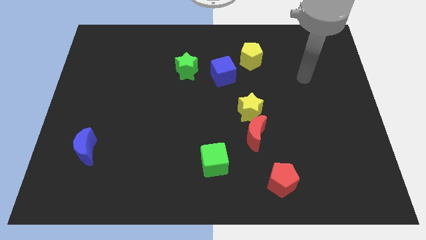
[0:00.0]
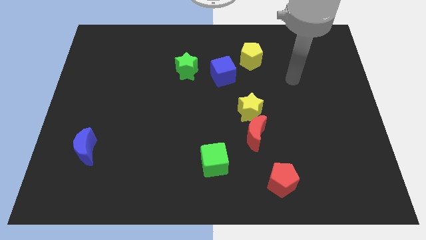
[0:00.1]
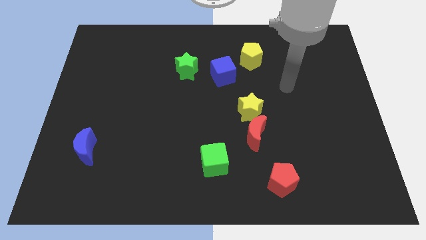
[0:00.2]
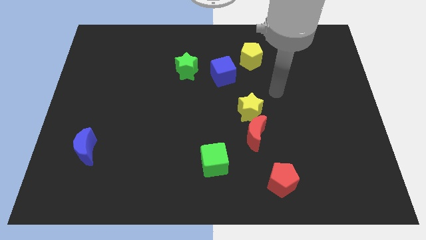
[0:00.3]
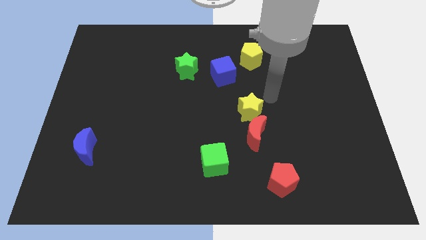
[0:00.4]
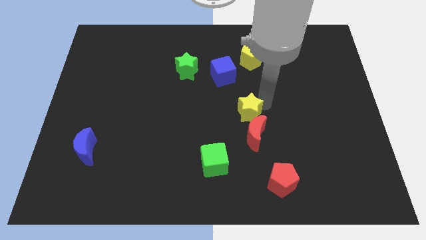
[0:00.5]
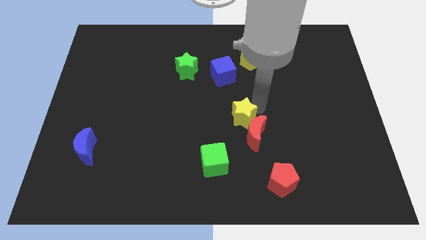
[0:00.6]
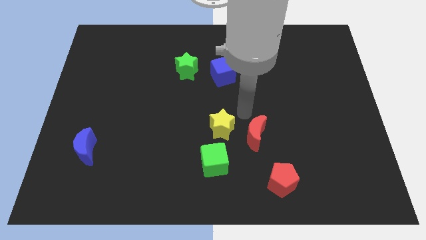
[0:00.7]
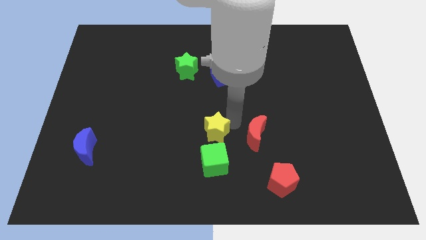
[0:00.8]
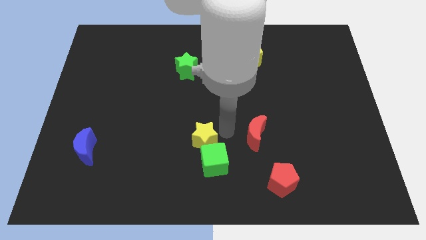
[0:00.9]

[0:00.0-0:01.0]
pull the red moon apart from the yellow star

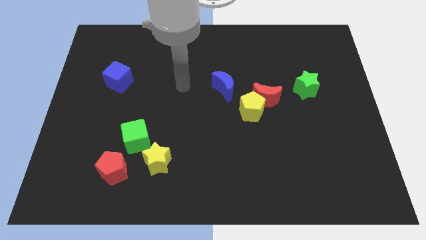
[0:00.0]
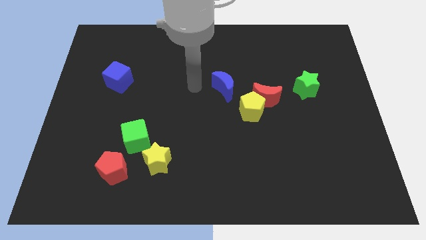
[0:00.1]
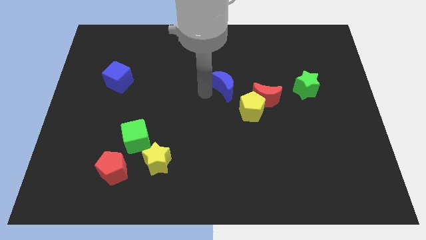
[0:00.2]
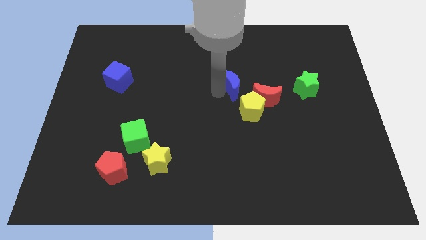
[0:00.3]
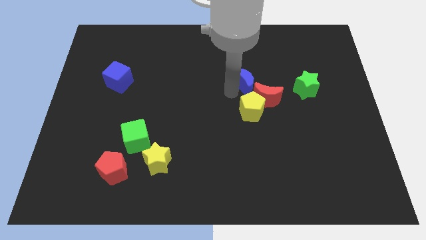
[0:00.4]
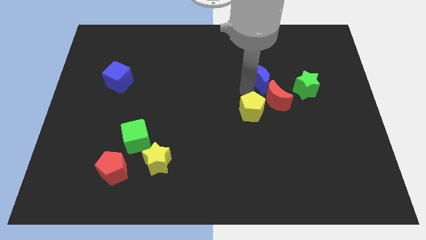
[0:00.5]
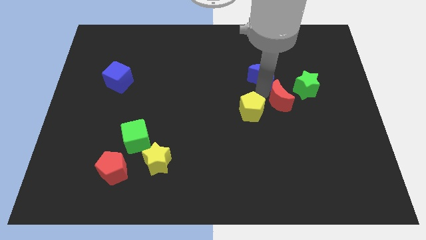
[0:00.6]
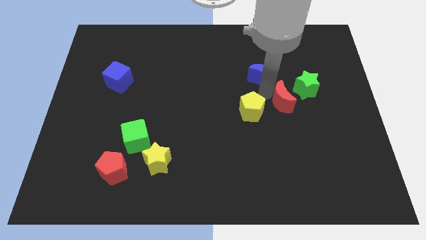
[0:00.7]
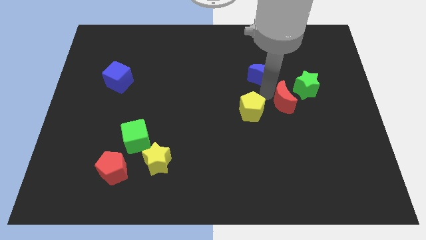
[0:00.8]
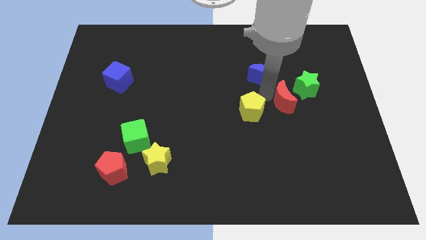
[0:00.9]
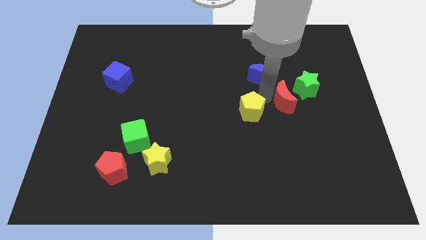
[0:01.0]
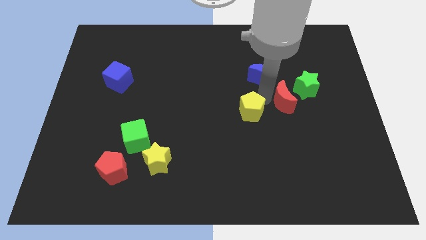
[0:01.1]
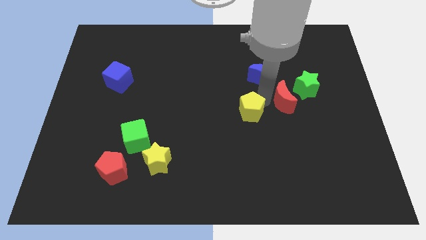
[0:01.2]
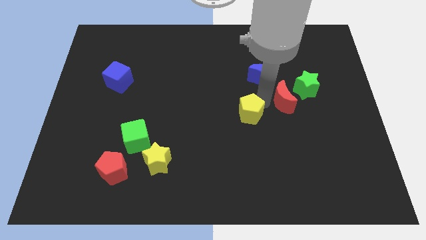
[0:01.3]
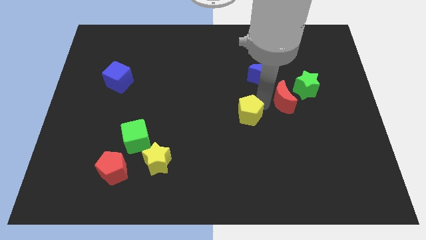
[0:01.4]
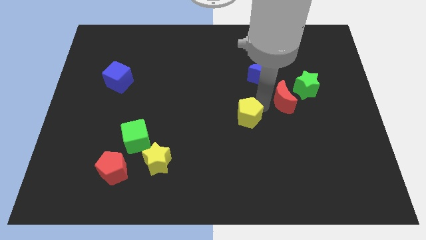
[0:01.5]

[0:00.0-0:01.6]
separate the yellow pentagon from the red moon and blue moon

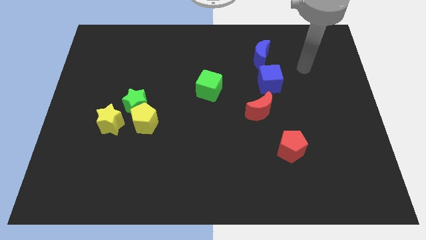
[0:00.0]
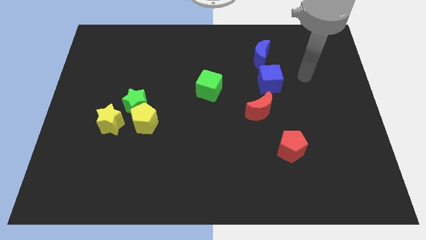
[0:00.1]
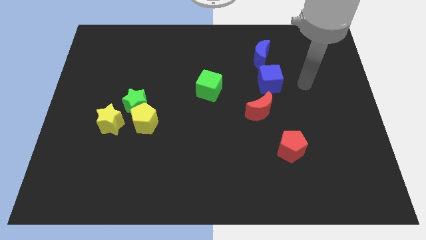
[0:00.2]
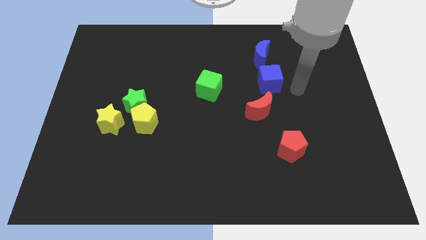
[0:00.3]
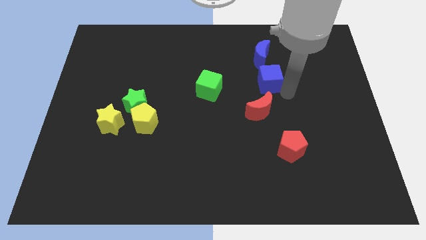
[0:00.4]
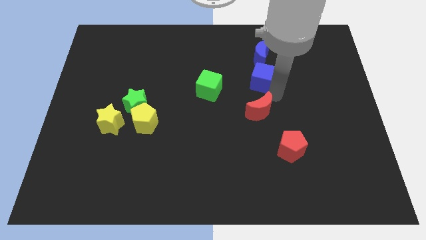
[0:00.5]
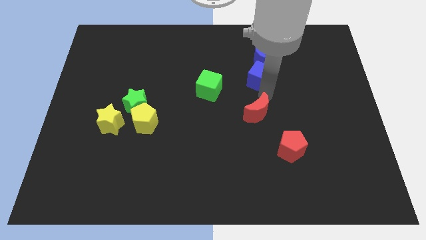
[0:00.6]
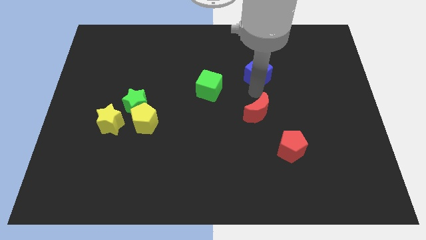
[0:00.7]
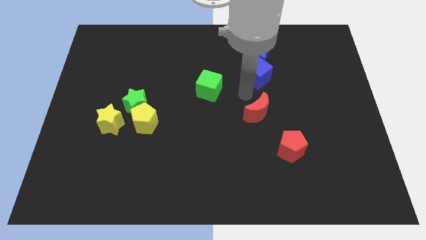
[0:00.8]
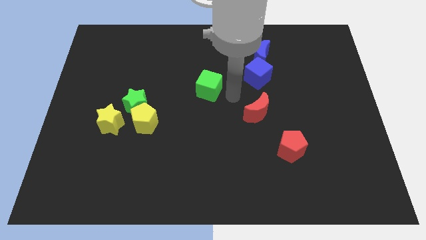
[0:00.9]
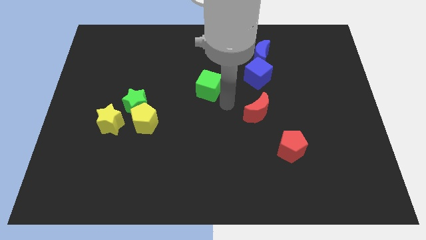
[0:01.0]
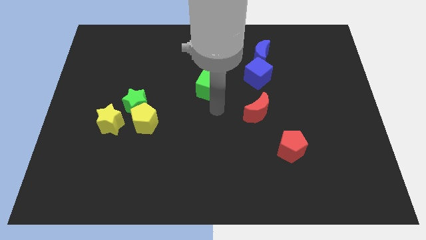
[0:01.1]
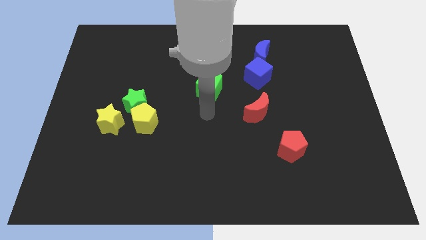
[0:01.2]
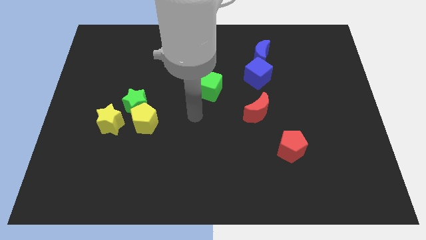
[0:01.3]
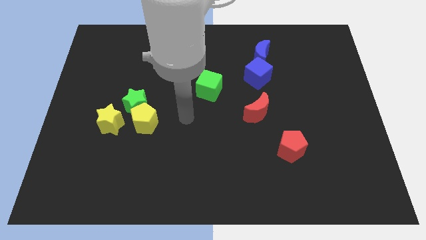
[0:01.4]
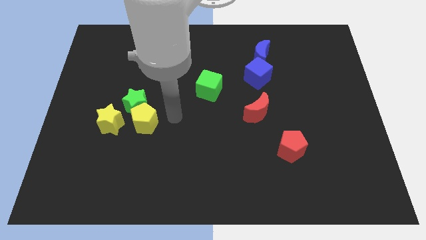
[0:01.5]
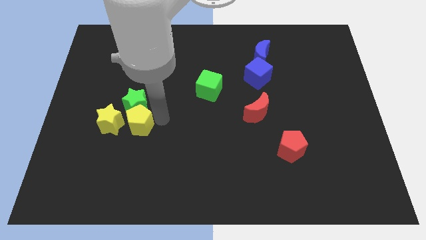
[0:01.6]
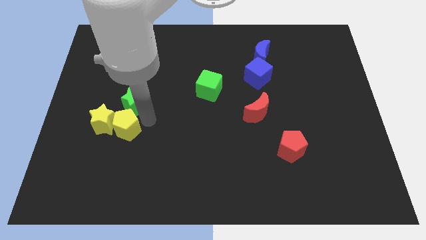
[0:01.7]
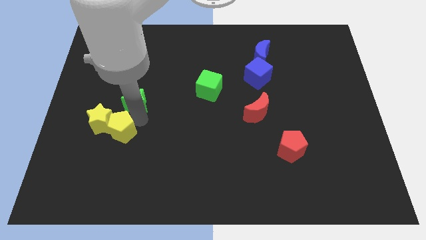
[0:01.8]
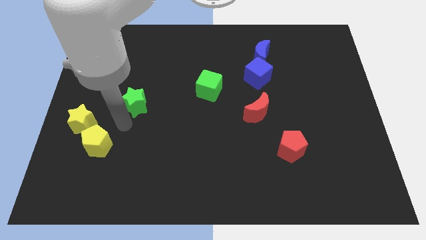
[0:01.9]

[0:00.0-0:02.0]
separate the green star from the yellow pentagon and yellow star

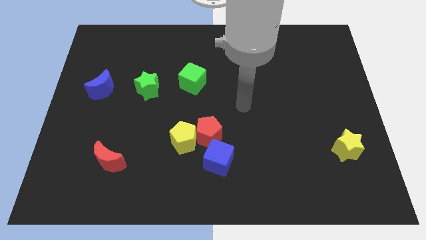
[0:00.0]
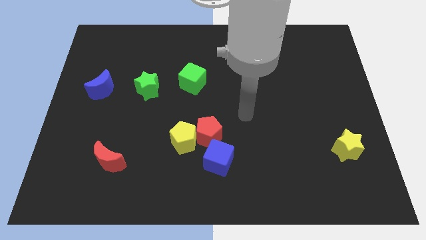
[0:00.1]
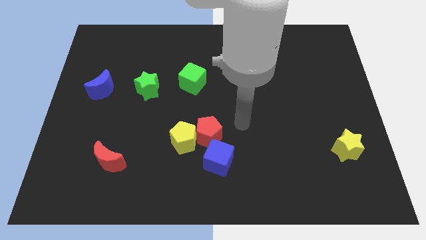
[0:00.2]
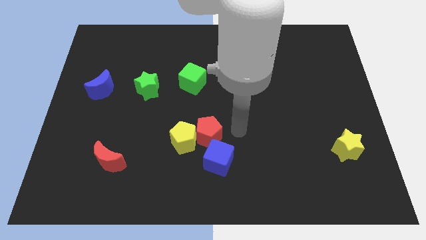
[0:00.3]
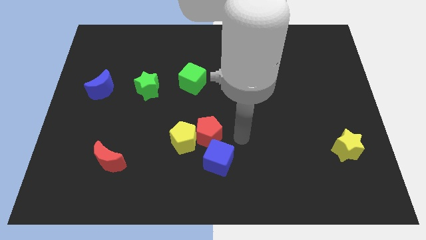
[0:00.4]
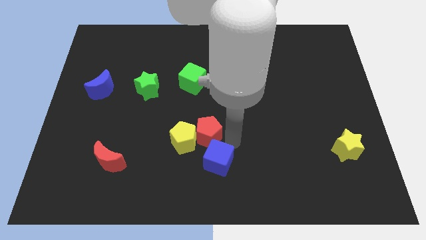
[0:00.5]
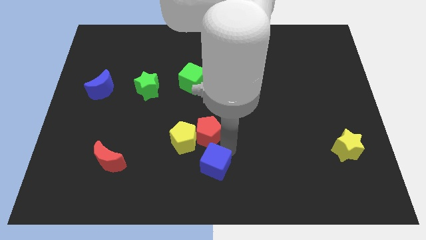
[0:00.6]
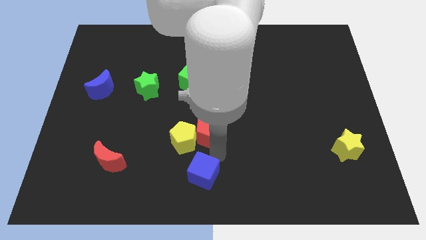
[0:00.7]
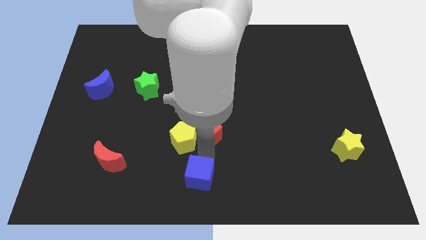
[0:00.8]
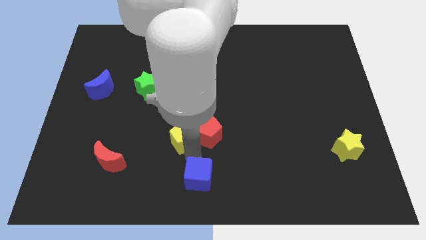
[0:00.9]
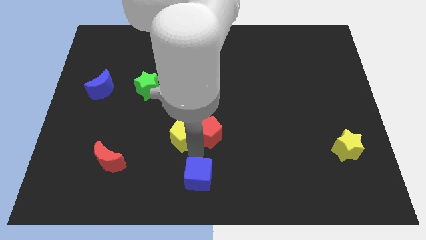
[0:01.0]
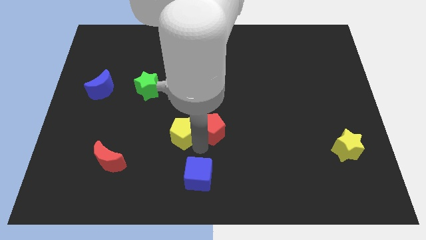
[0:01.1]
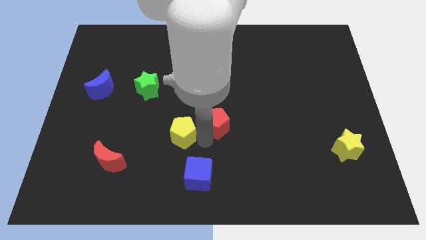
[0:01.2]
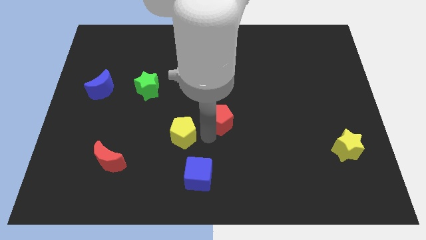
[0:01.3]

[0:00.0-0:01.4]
move the red pentagon away from the yellow pentagon and blue cube

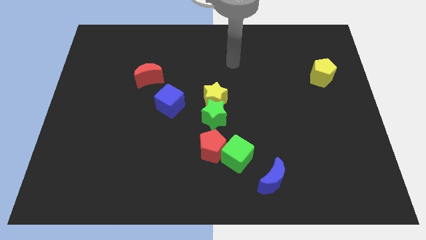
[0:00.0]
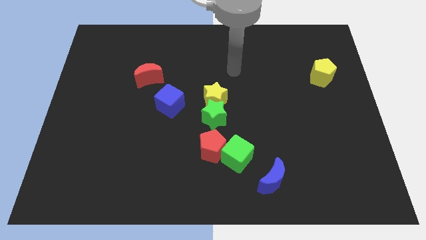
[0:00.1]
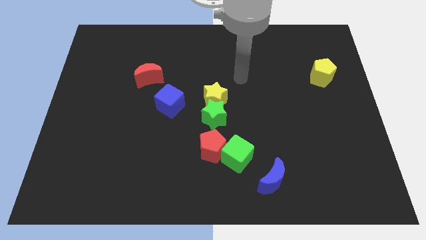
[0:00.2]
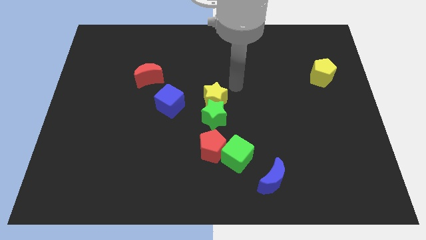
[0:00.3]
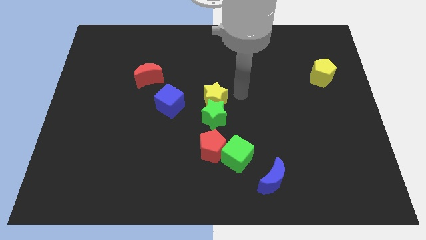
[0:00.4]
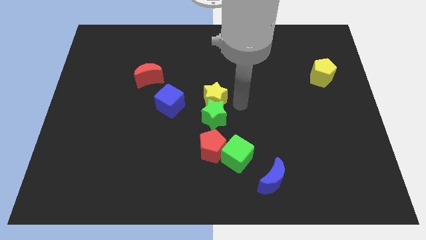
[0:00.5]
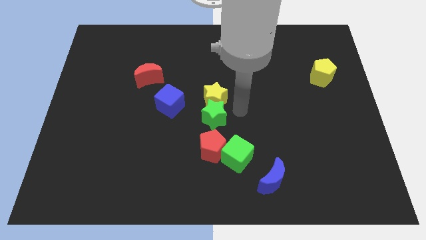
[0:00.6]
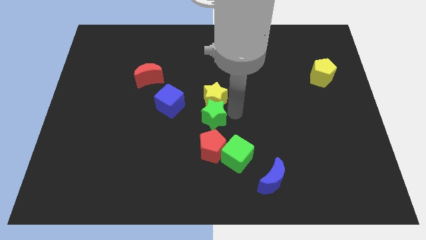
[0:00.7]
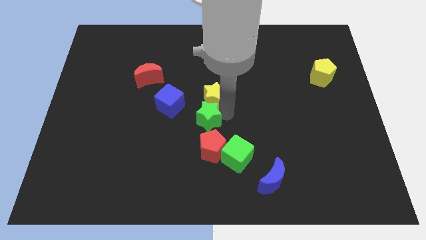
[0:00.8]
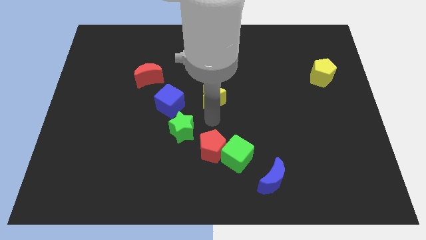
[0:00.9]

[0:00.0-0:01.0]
pull the yellow star apart from the green star

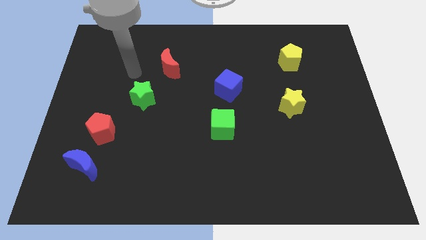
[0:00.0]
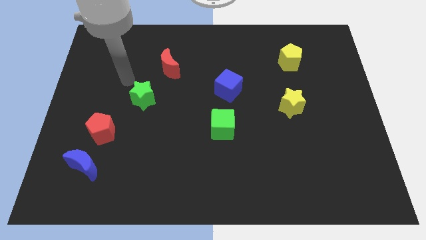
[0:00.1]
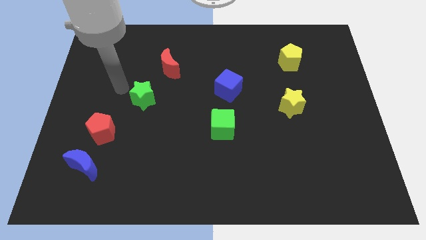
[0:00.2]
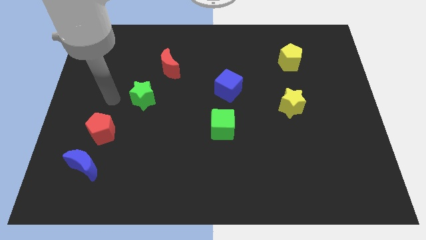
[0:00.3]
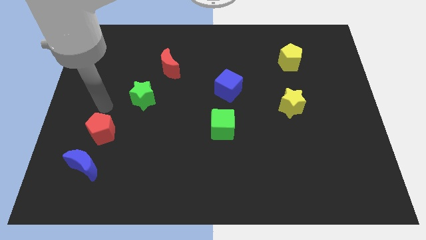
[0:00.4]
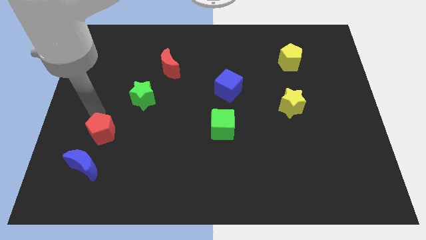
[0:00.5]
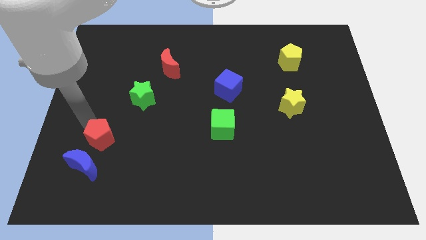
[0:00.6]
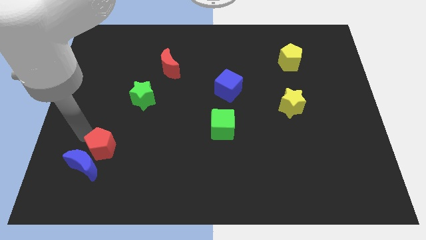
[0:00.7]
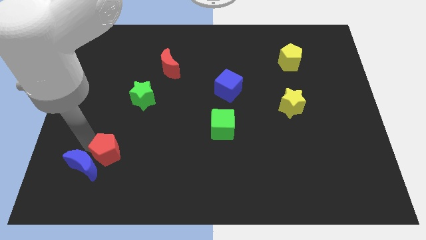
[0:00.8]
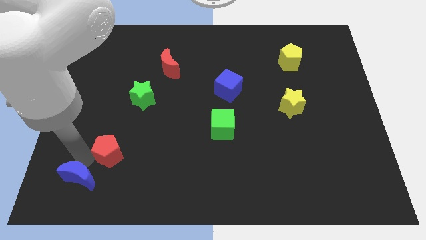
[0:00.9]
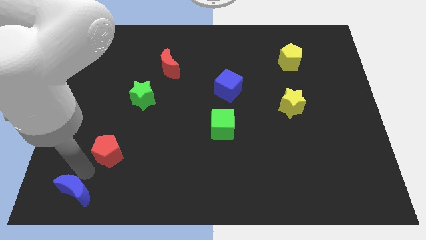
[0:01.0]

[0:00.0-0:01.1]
pull the red pentagon apart from the blue moon

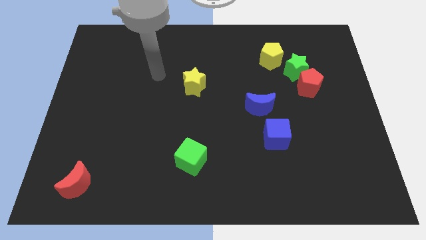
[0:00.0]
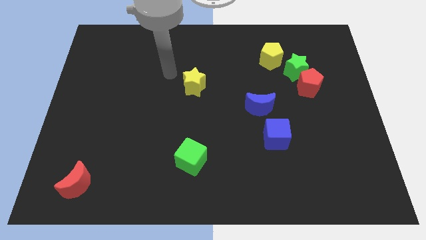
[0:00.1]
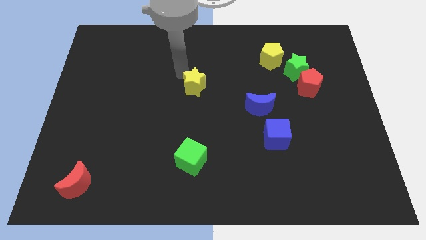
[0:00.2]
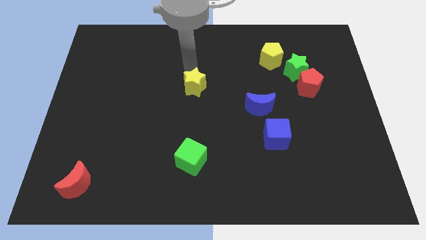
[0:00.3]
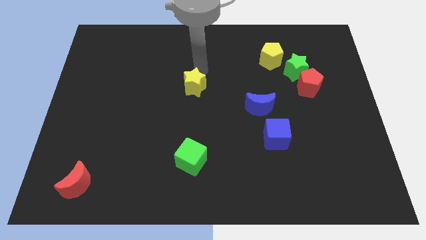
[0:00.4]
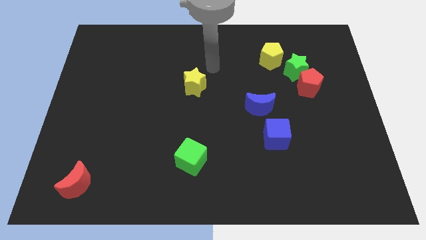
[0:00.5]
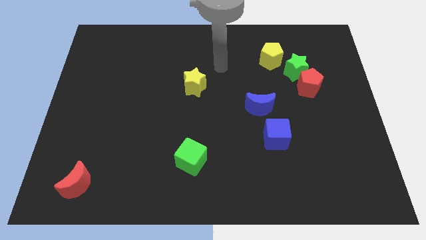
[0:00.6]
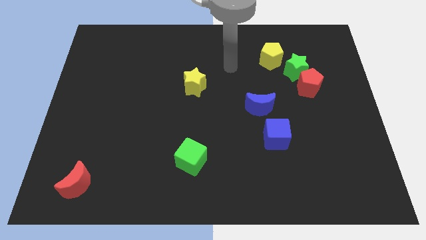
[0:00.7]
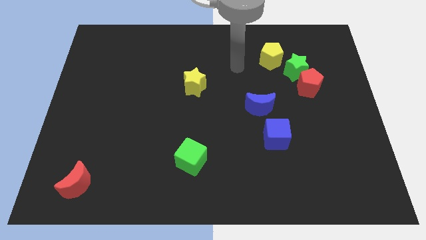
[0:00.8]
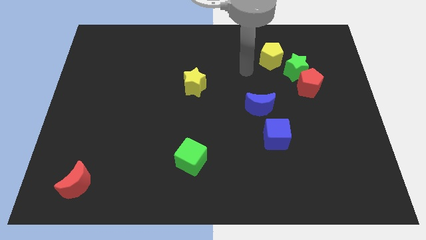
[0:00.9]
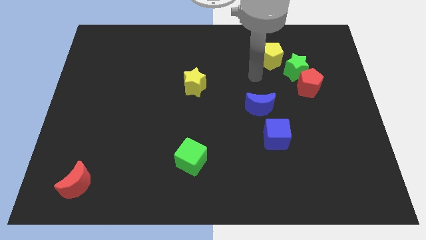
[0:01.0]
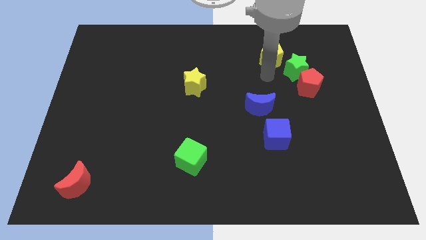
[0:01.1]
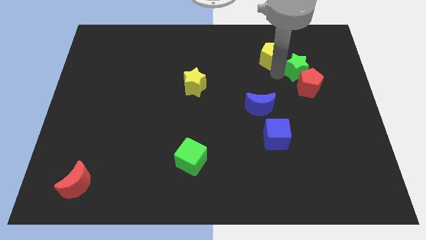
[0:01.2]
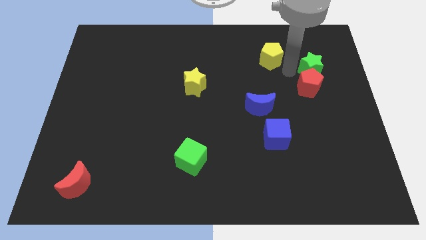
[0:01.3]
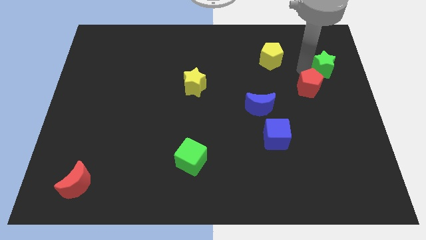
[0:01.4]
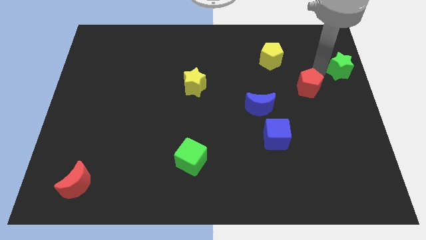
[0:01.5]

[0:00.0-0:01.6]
move the red pentagon away from the green star
